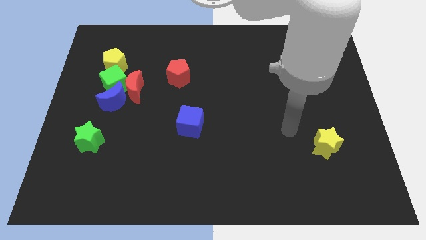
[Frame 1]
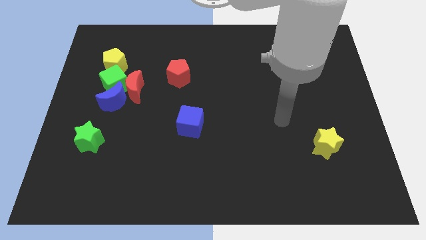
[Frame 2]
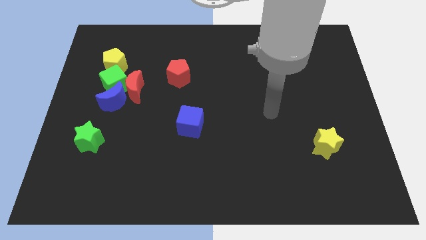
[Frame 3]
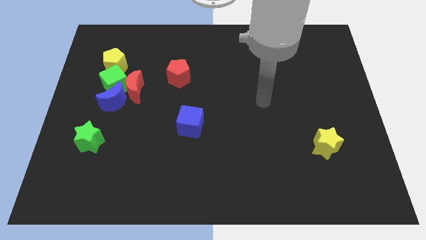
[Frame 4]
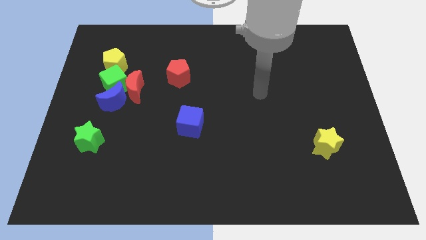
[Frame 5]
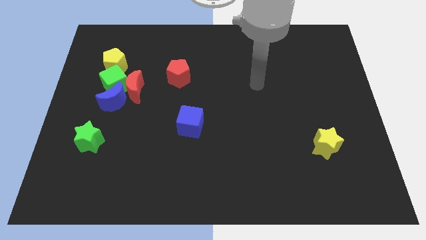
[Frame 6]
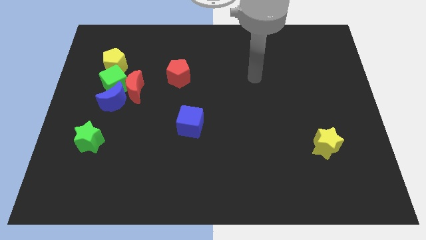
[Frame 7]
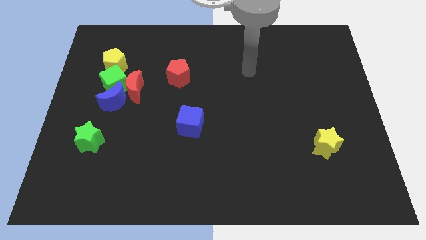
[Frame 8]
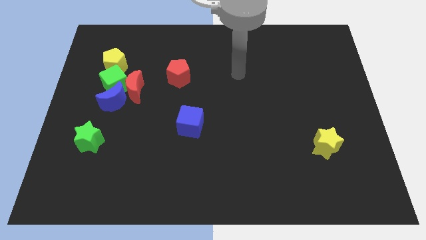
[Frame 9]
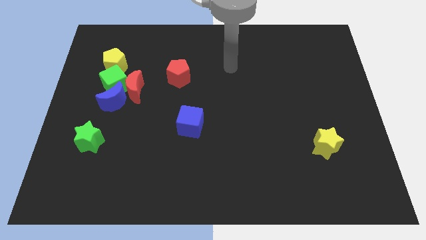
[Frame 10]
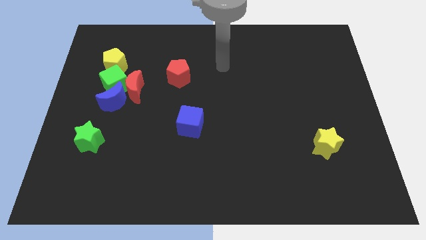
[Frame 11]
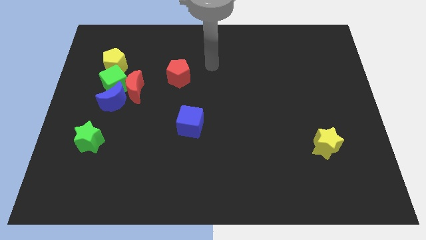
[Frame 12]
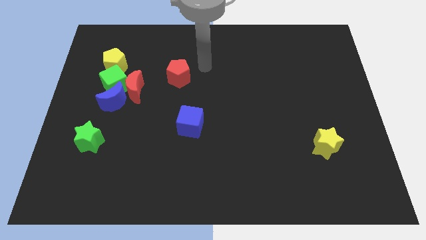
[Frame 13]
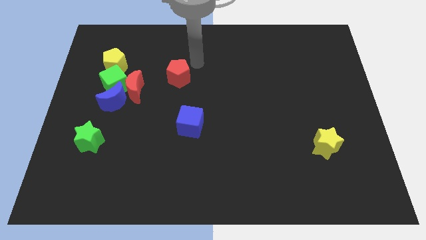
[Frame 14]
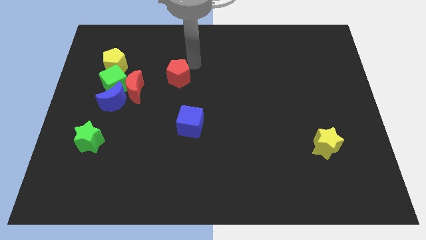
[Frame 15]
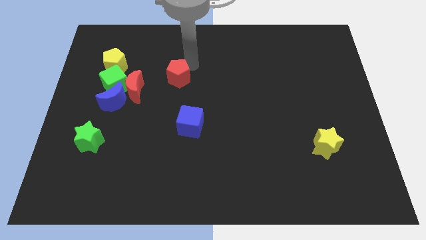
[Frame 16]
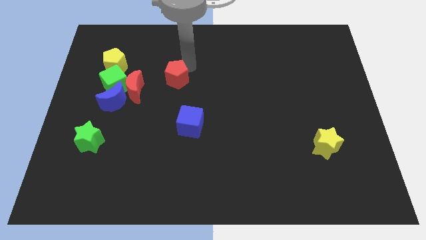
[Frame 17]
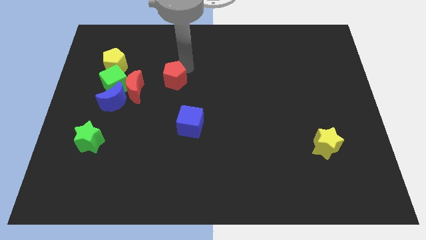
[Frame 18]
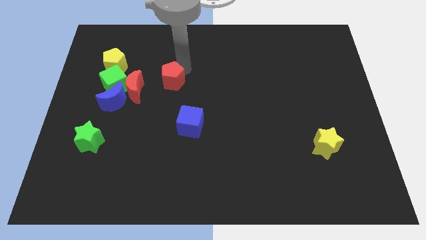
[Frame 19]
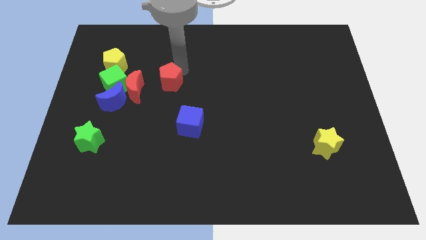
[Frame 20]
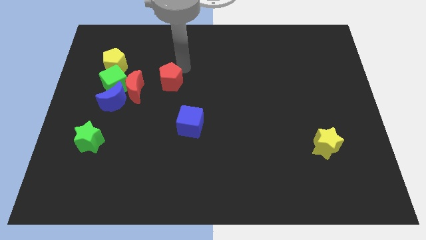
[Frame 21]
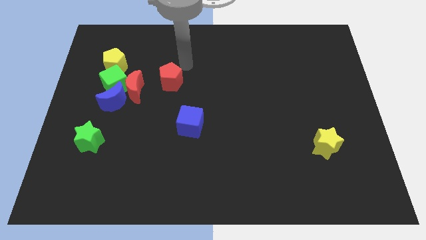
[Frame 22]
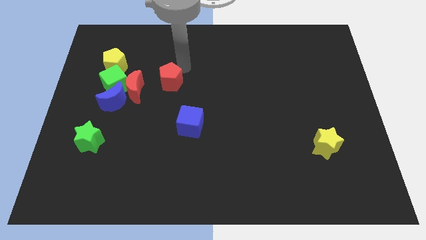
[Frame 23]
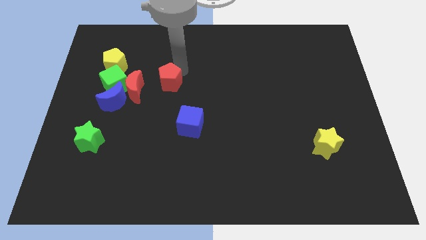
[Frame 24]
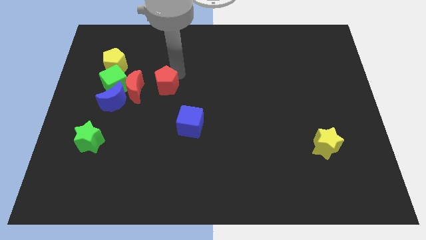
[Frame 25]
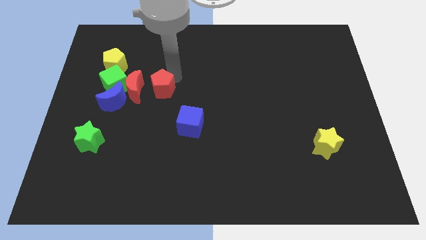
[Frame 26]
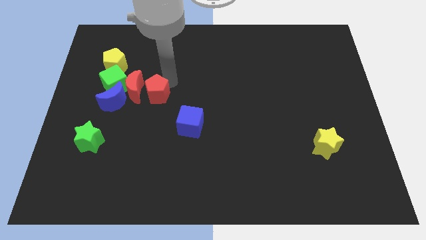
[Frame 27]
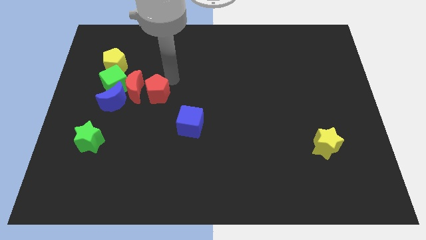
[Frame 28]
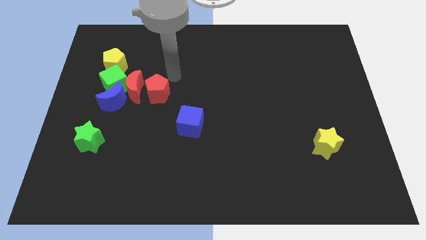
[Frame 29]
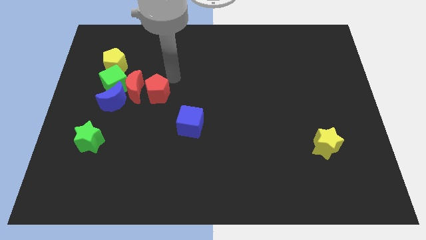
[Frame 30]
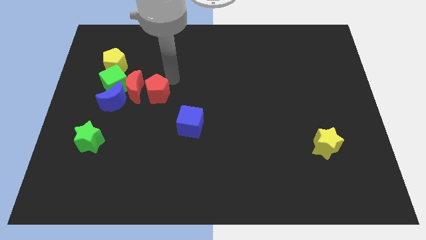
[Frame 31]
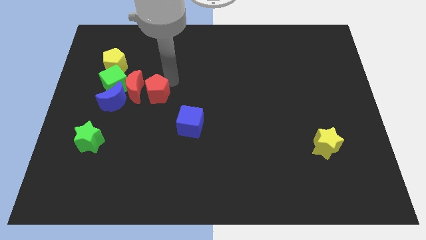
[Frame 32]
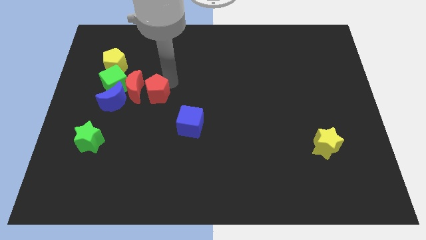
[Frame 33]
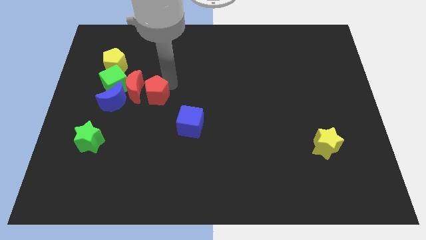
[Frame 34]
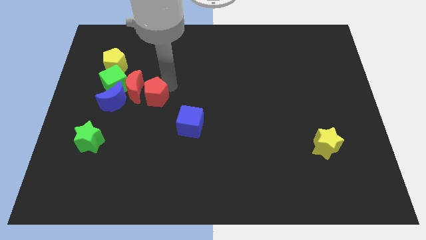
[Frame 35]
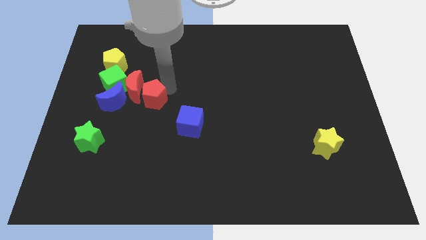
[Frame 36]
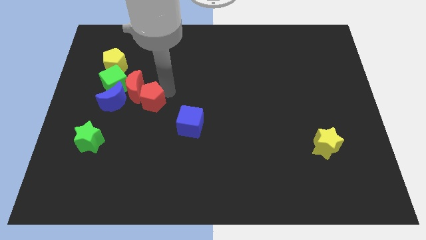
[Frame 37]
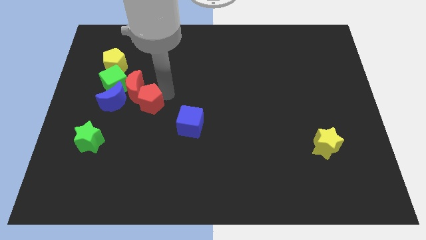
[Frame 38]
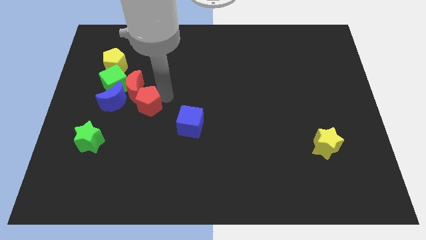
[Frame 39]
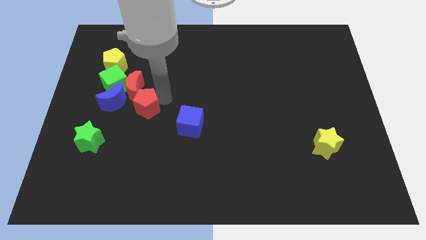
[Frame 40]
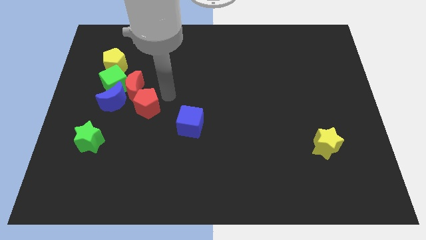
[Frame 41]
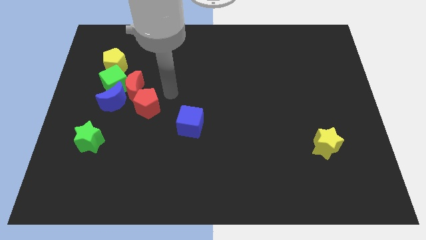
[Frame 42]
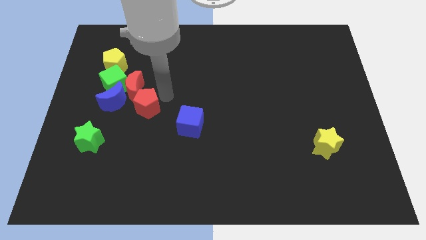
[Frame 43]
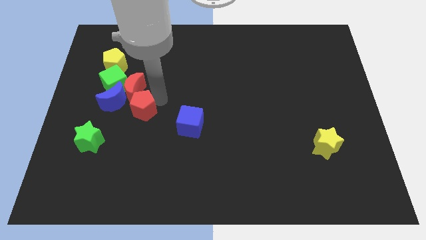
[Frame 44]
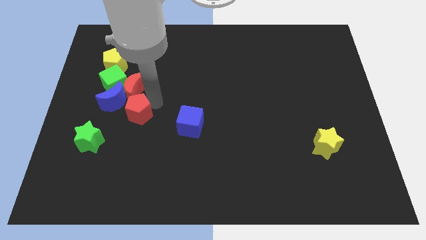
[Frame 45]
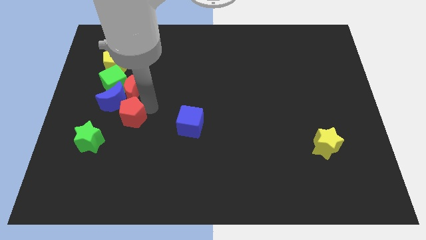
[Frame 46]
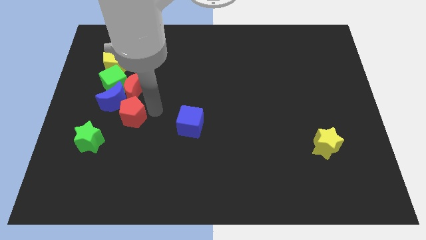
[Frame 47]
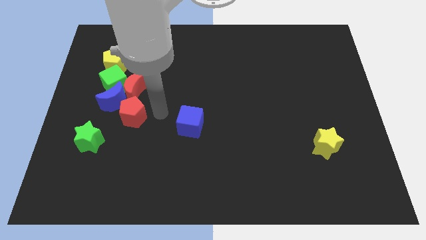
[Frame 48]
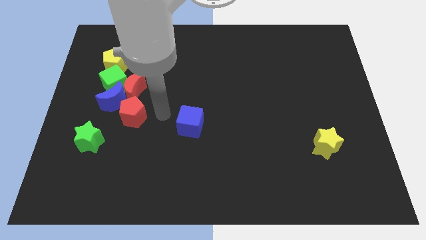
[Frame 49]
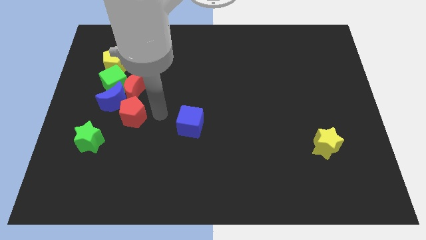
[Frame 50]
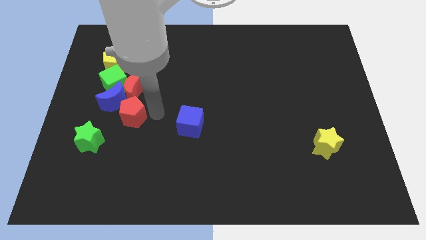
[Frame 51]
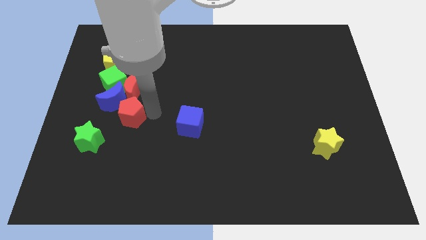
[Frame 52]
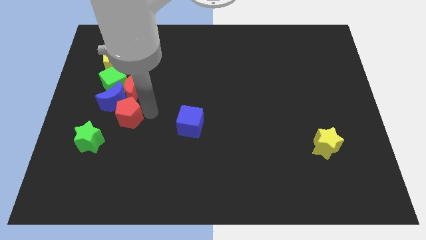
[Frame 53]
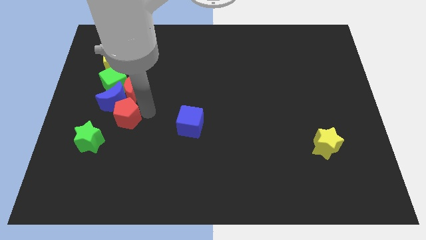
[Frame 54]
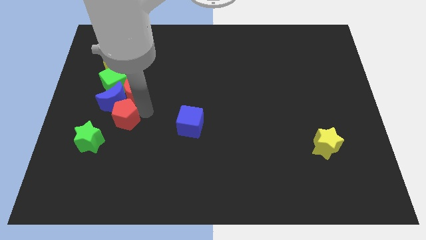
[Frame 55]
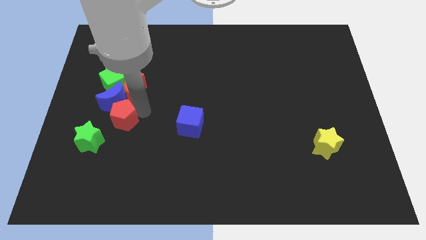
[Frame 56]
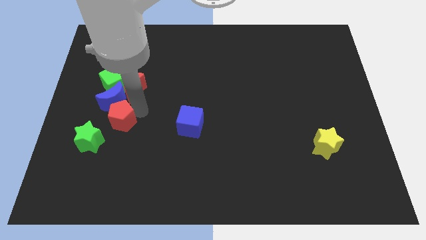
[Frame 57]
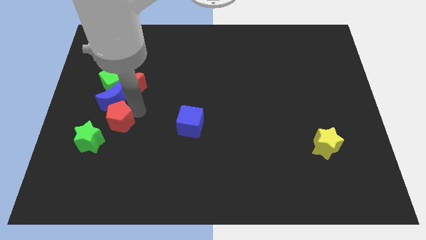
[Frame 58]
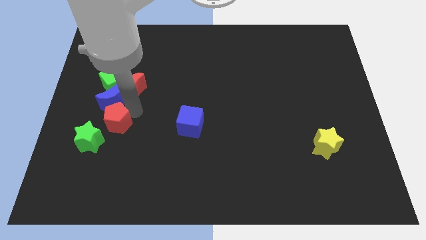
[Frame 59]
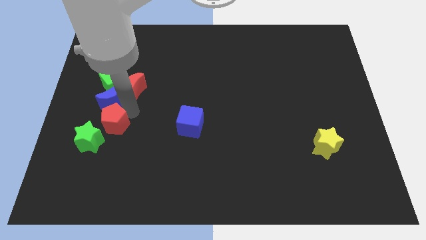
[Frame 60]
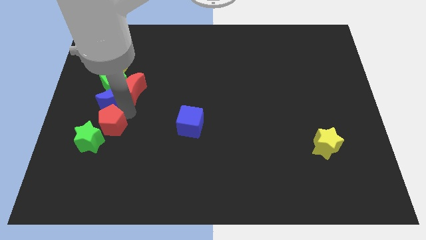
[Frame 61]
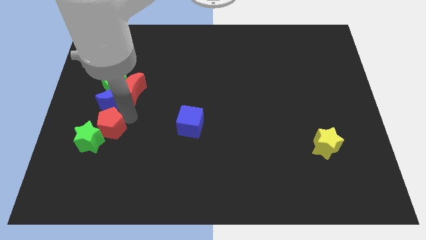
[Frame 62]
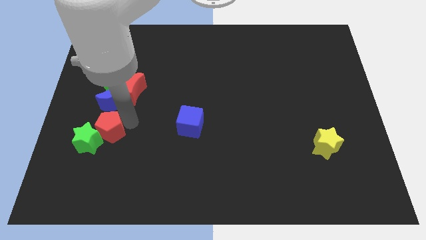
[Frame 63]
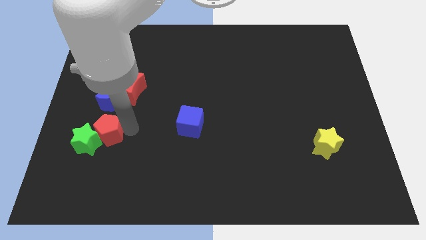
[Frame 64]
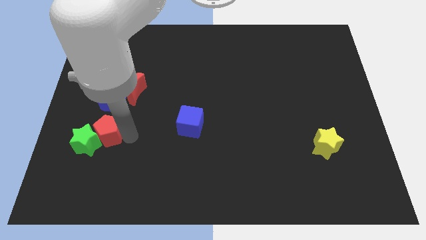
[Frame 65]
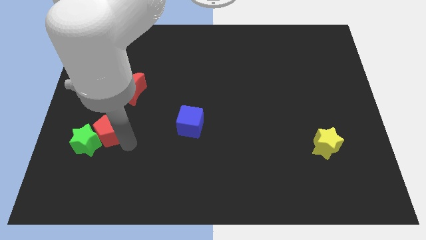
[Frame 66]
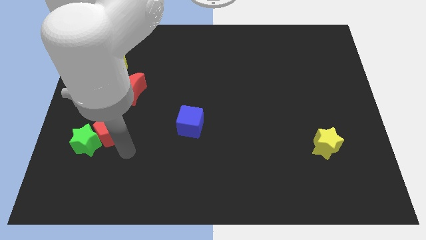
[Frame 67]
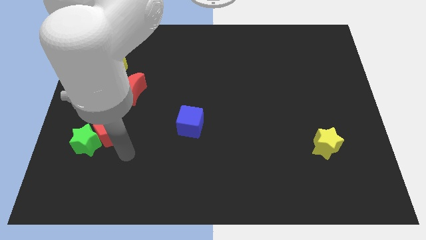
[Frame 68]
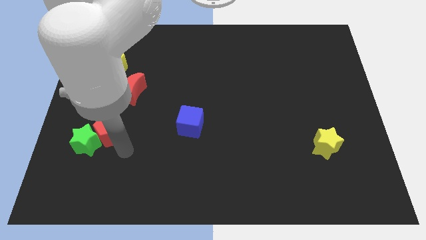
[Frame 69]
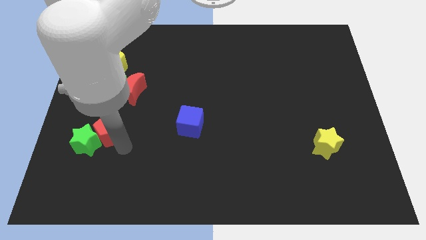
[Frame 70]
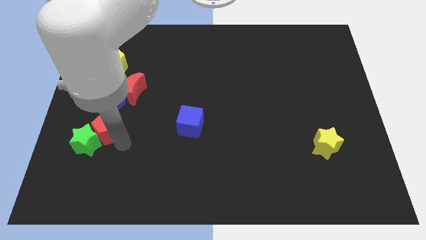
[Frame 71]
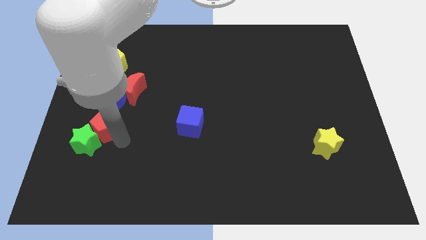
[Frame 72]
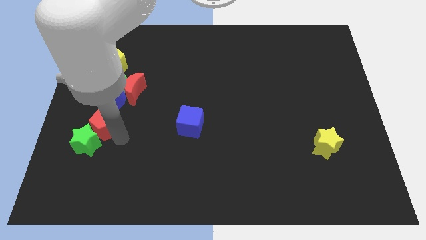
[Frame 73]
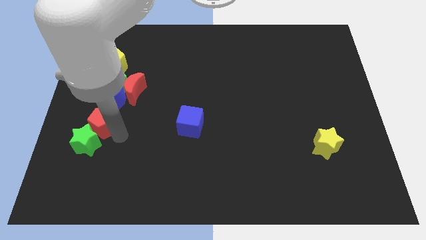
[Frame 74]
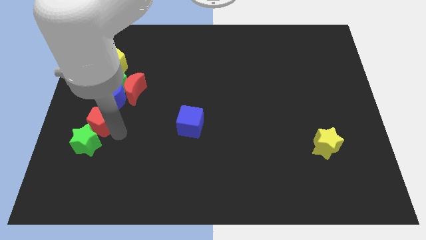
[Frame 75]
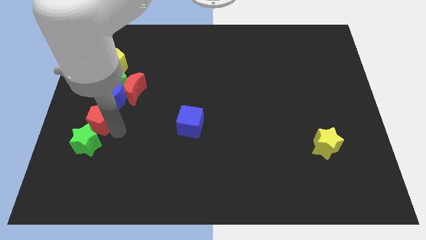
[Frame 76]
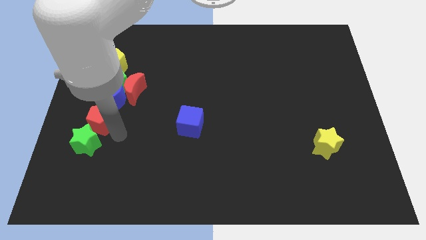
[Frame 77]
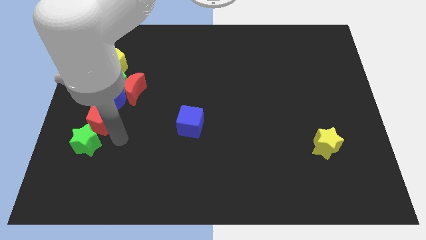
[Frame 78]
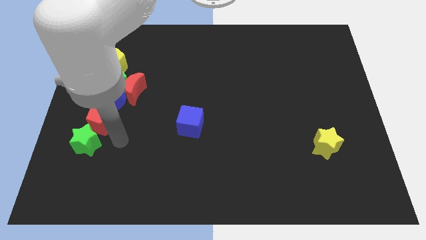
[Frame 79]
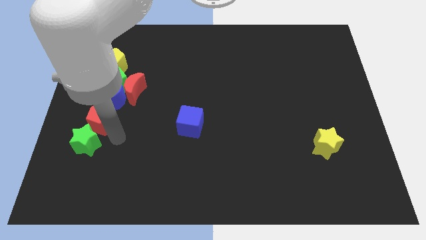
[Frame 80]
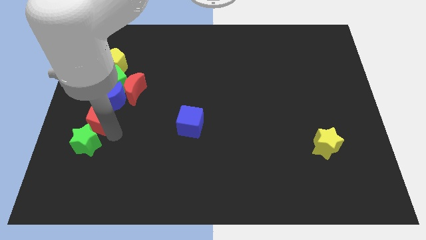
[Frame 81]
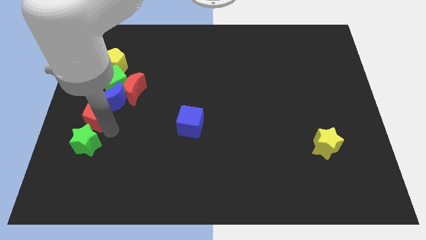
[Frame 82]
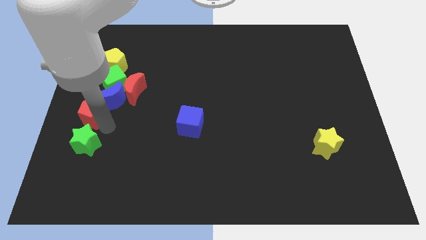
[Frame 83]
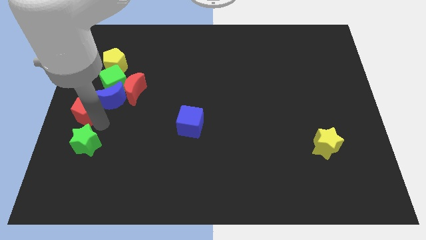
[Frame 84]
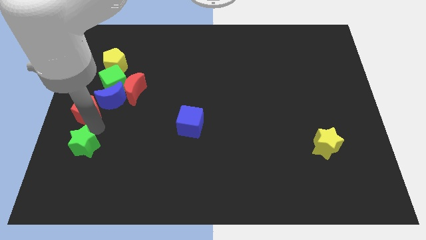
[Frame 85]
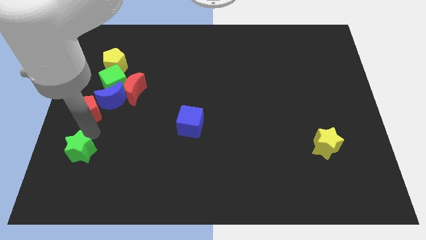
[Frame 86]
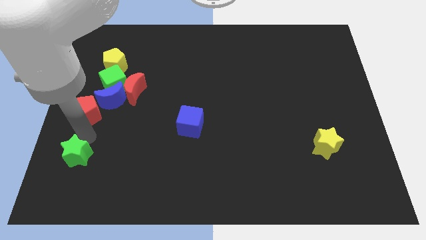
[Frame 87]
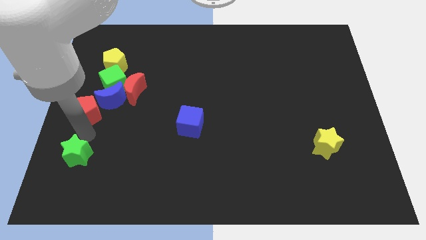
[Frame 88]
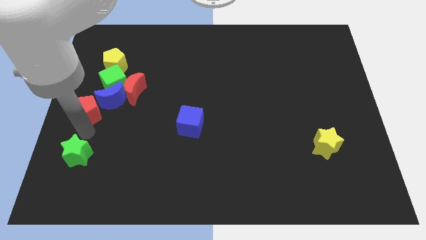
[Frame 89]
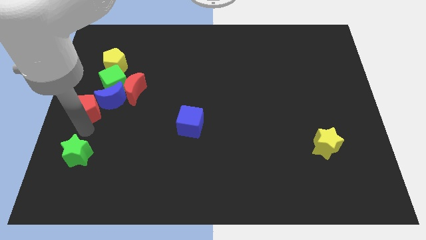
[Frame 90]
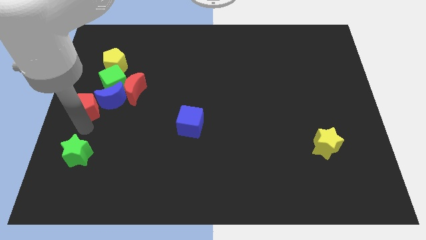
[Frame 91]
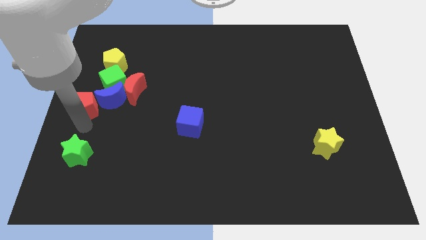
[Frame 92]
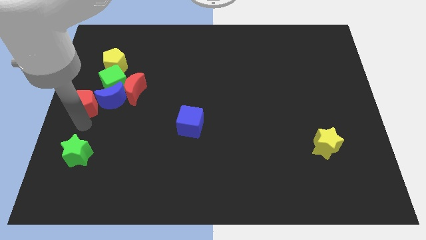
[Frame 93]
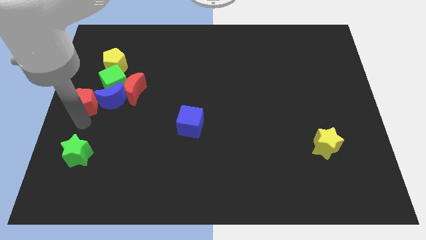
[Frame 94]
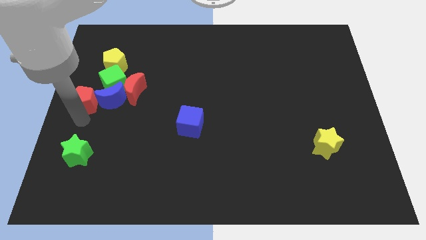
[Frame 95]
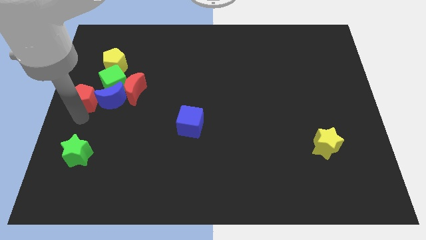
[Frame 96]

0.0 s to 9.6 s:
put the red pentagon to the top left side of the blue moon
